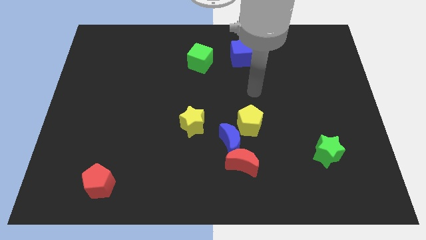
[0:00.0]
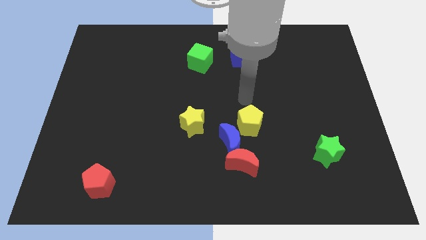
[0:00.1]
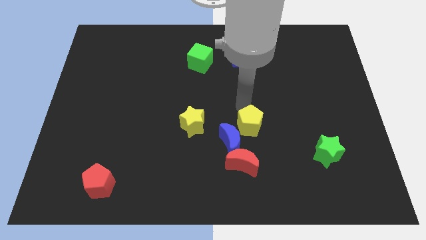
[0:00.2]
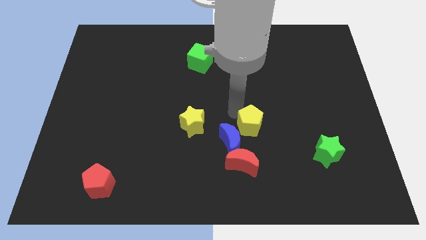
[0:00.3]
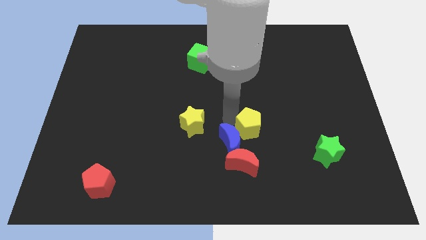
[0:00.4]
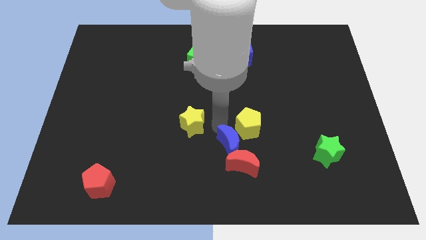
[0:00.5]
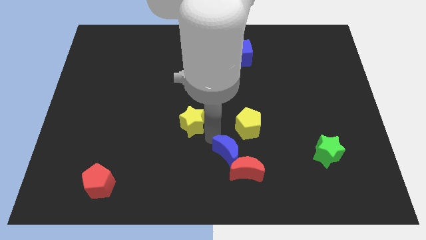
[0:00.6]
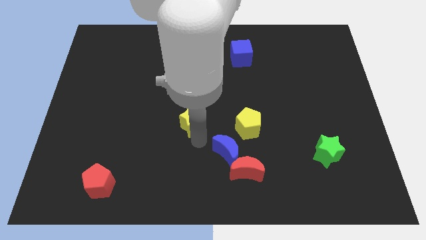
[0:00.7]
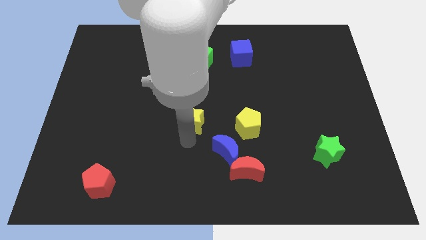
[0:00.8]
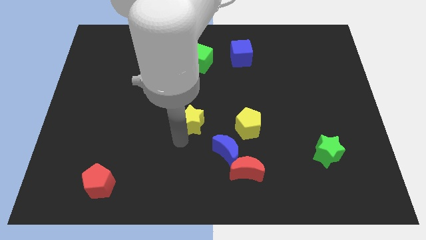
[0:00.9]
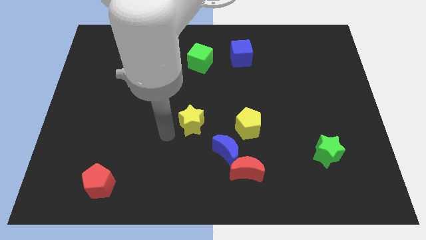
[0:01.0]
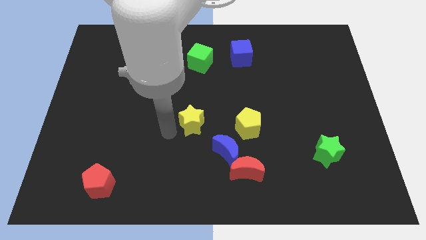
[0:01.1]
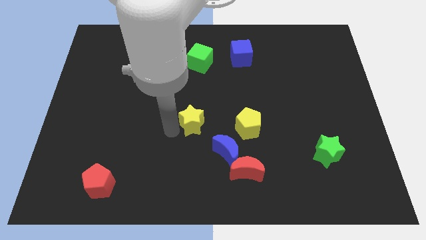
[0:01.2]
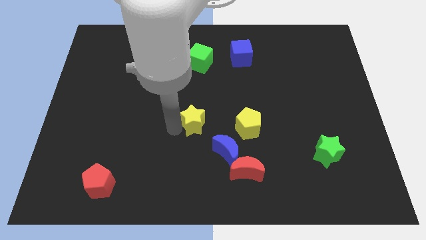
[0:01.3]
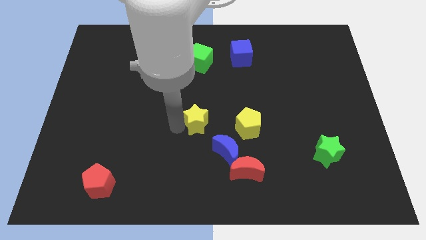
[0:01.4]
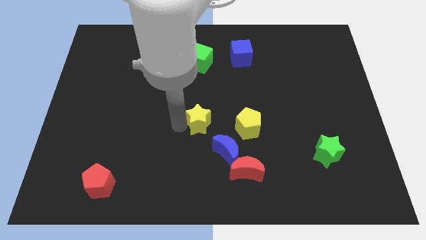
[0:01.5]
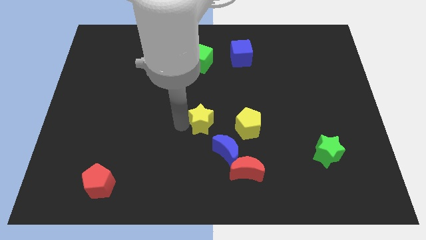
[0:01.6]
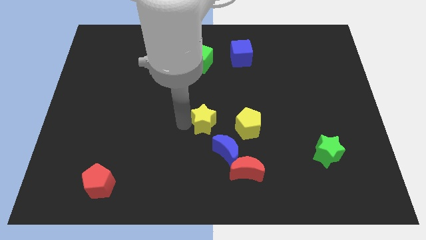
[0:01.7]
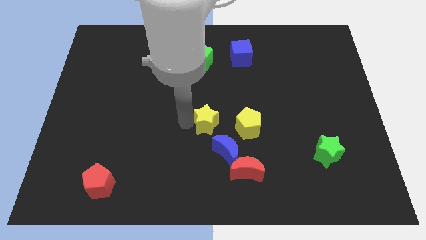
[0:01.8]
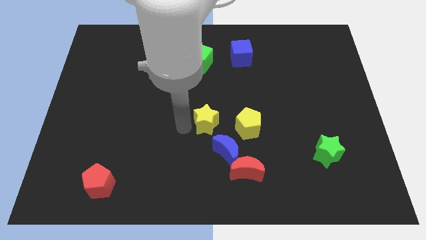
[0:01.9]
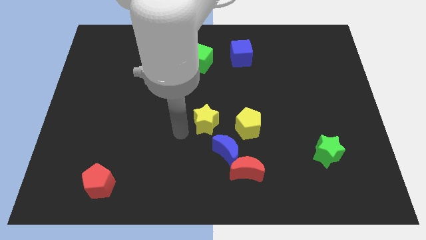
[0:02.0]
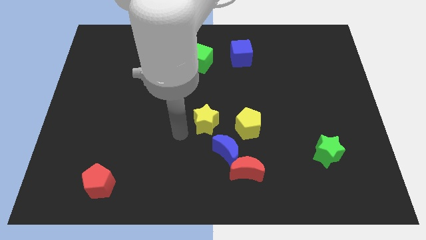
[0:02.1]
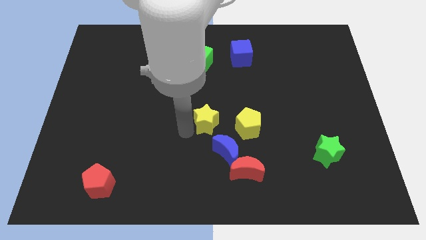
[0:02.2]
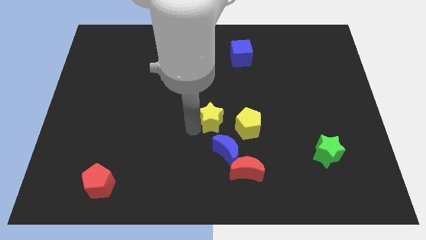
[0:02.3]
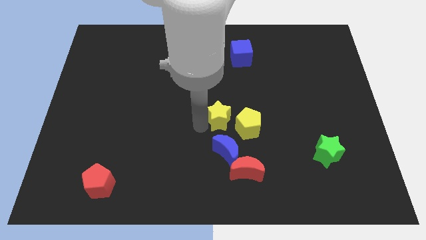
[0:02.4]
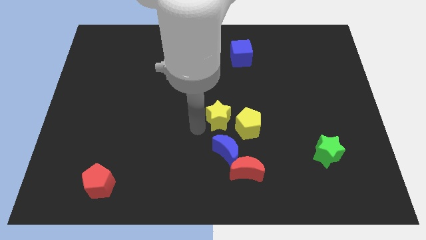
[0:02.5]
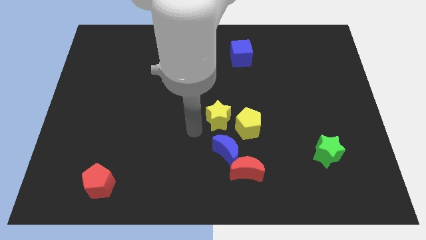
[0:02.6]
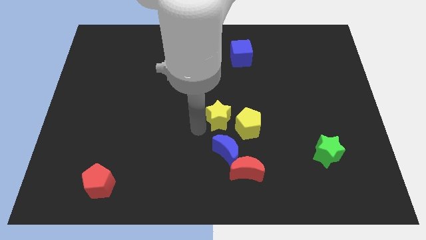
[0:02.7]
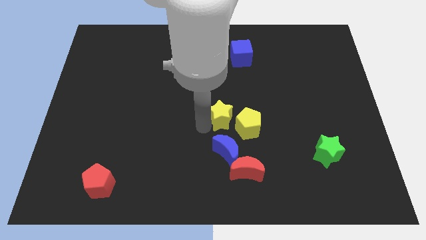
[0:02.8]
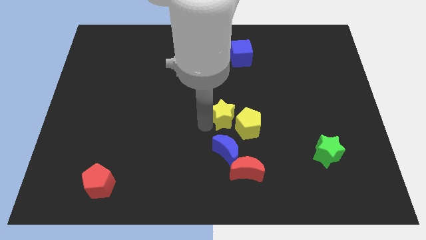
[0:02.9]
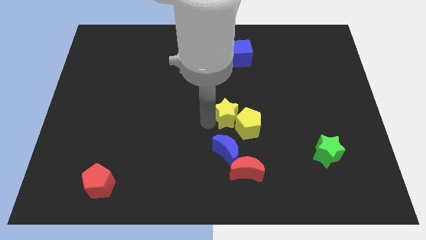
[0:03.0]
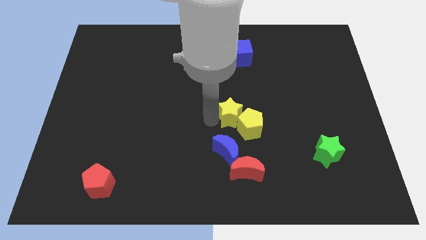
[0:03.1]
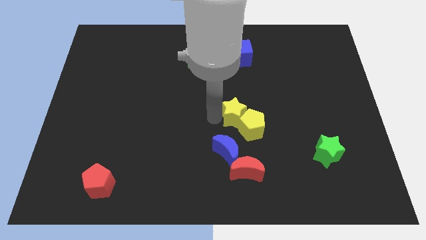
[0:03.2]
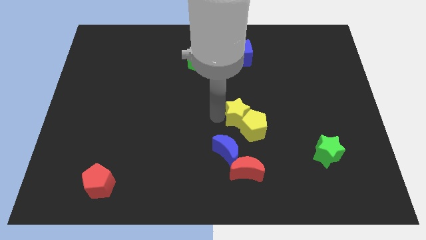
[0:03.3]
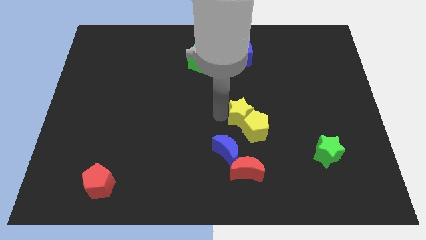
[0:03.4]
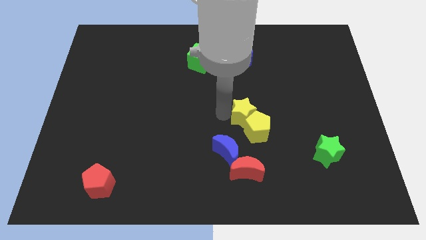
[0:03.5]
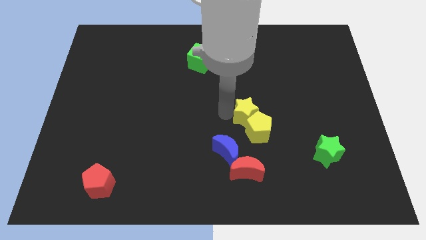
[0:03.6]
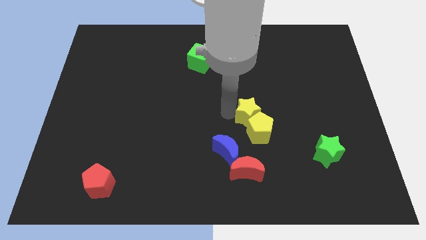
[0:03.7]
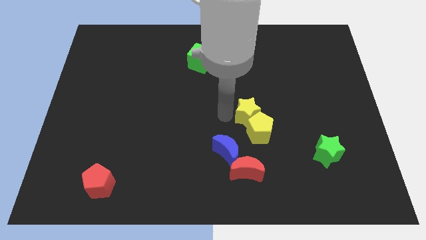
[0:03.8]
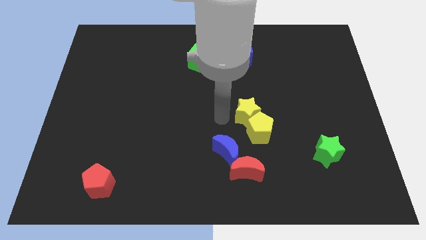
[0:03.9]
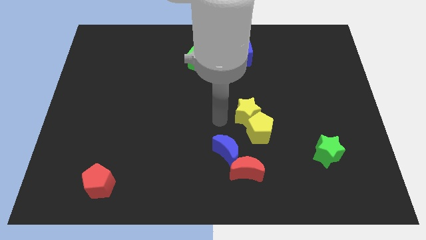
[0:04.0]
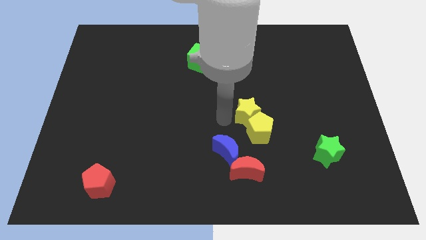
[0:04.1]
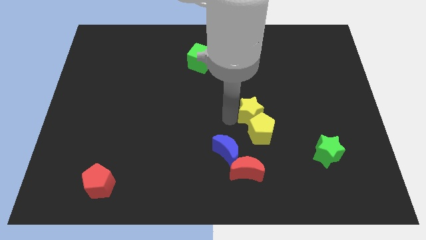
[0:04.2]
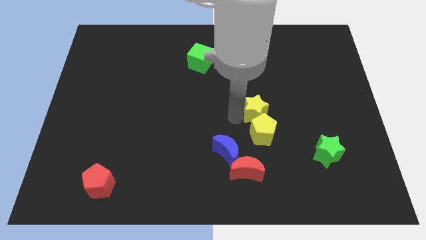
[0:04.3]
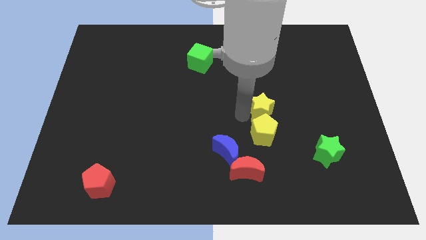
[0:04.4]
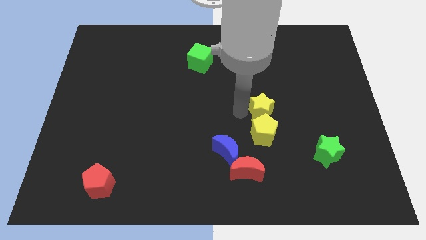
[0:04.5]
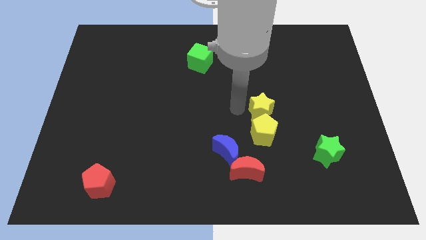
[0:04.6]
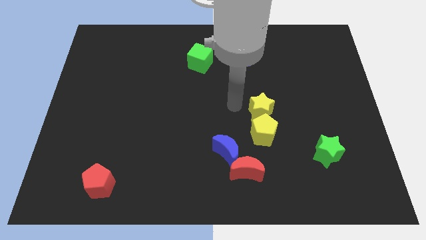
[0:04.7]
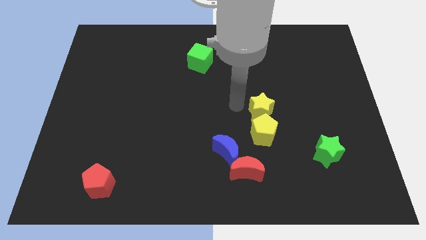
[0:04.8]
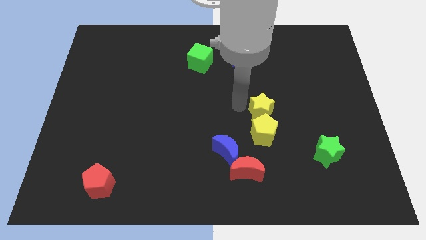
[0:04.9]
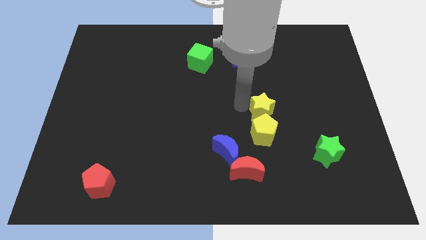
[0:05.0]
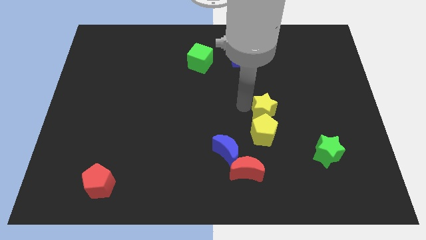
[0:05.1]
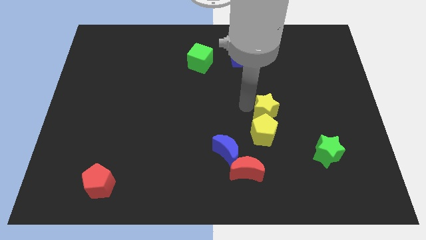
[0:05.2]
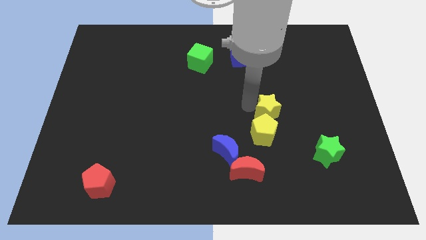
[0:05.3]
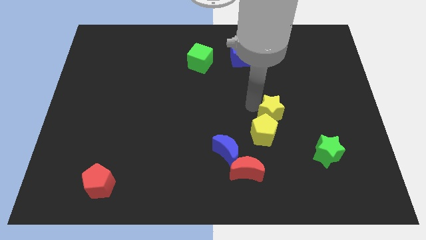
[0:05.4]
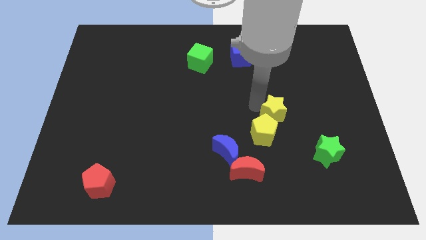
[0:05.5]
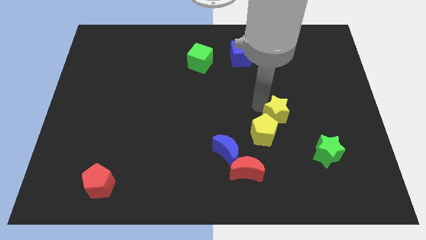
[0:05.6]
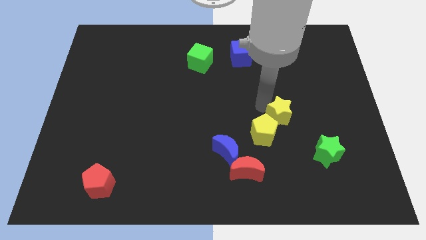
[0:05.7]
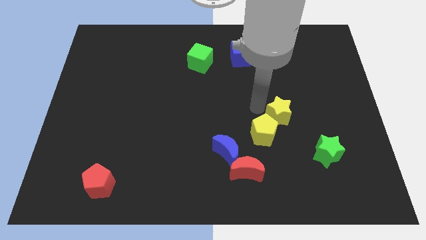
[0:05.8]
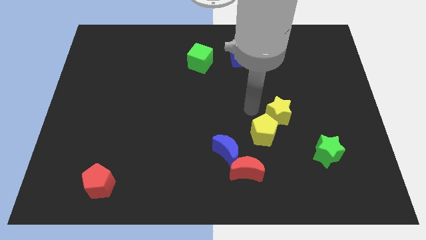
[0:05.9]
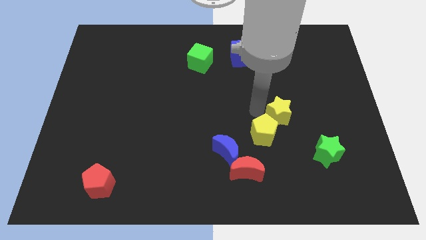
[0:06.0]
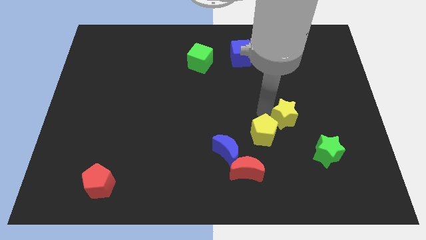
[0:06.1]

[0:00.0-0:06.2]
move the yellow star to the right

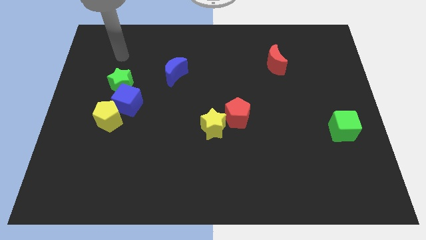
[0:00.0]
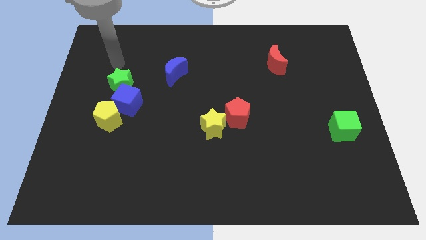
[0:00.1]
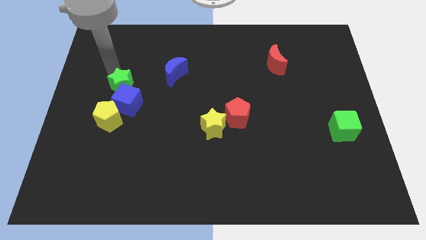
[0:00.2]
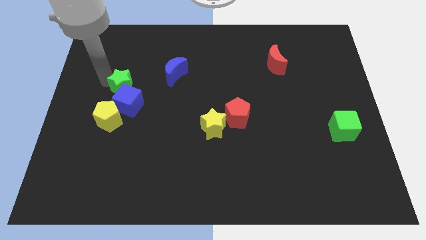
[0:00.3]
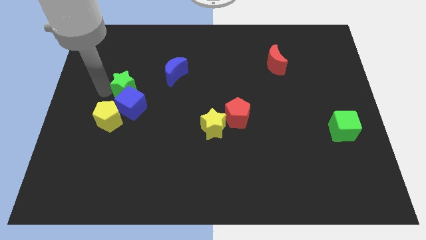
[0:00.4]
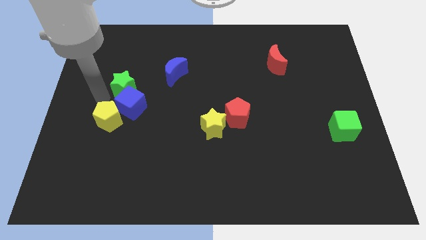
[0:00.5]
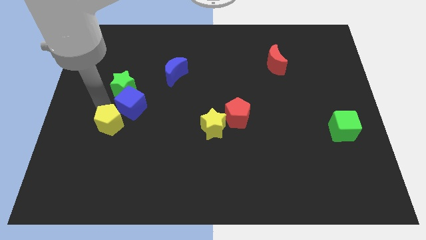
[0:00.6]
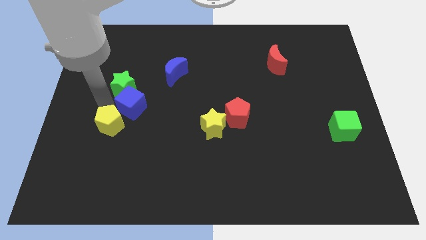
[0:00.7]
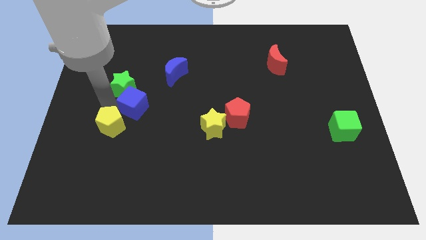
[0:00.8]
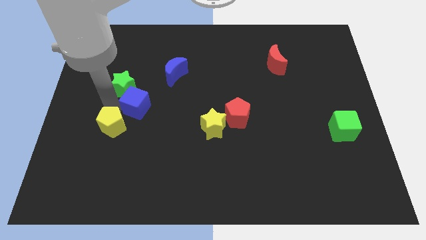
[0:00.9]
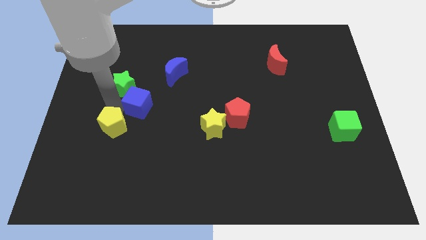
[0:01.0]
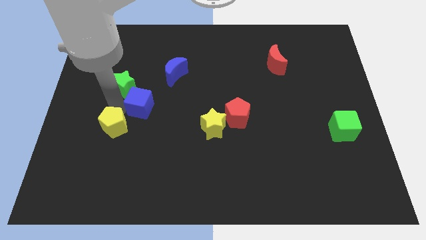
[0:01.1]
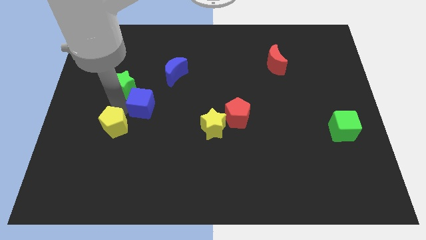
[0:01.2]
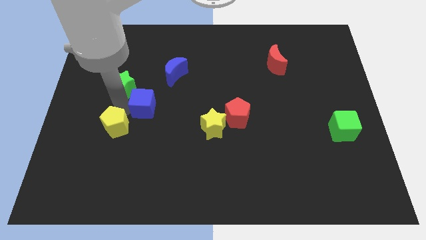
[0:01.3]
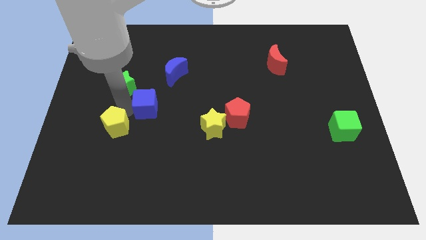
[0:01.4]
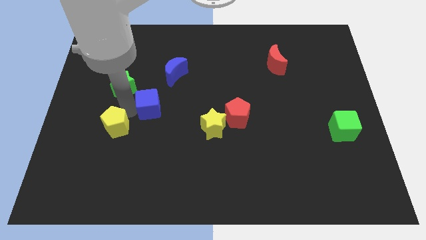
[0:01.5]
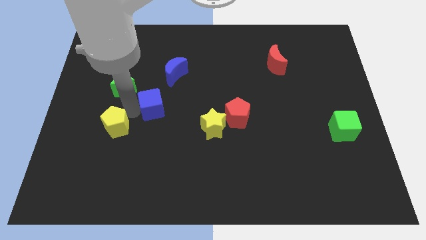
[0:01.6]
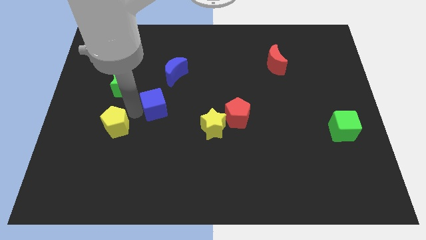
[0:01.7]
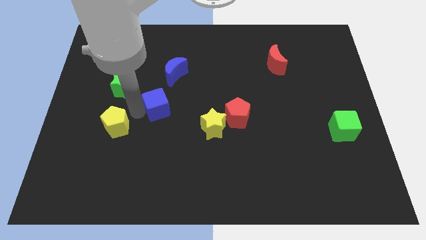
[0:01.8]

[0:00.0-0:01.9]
push the blue cube to the right a little bit
